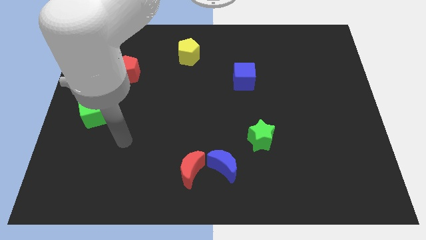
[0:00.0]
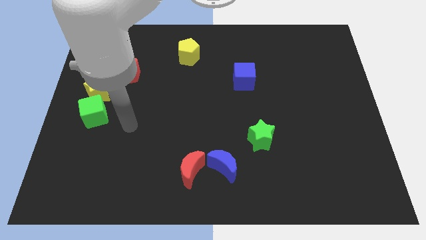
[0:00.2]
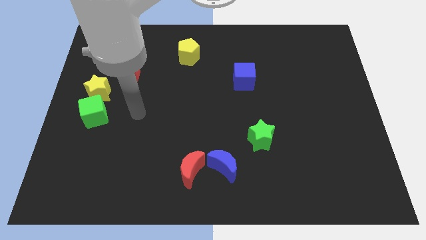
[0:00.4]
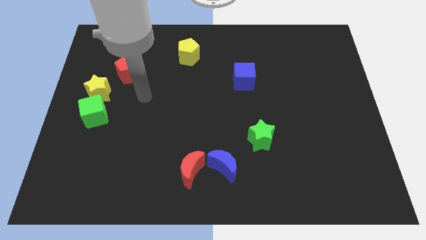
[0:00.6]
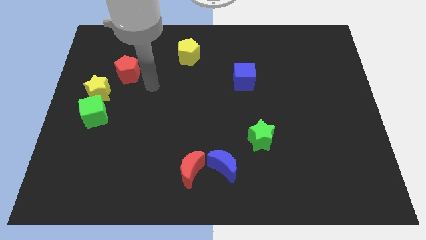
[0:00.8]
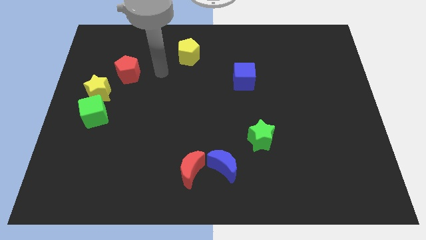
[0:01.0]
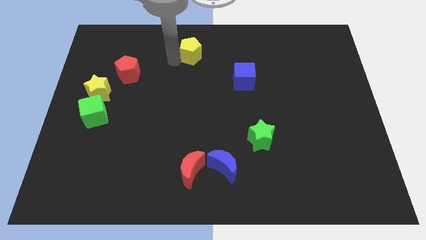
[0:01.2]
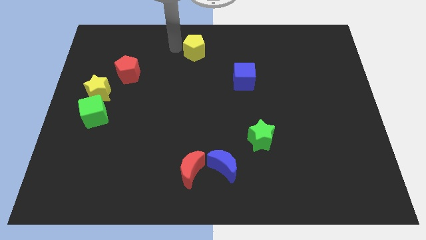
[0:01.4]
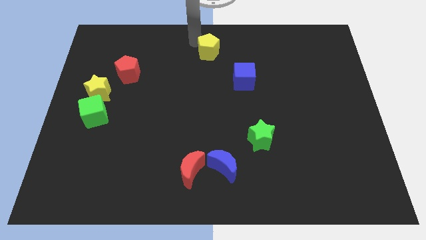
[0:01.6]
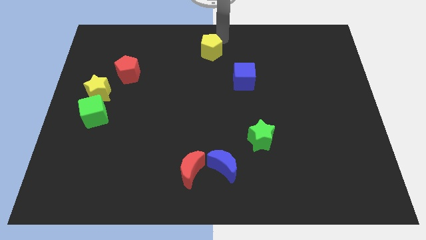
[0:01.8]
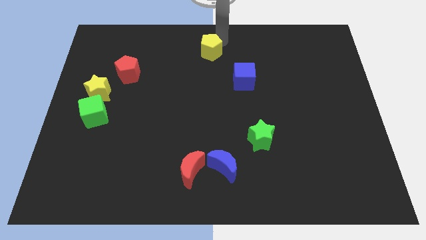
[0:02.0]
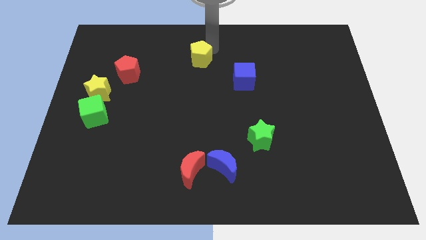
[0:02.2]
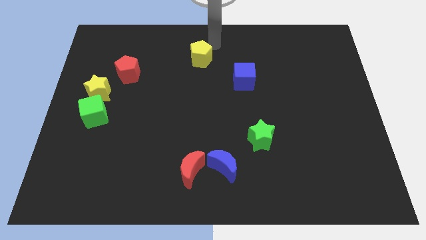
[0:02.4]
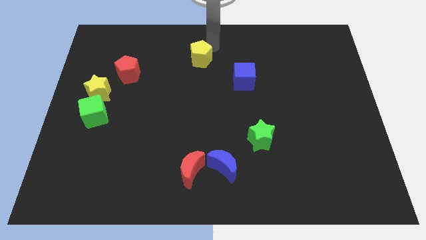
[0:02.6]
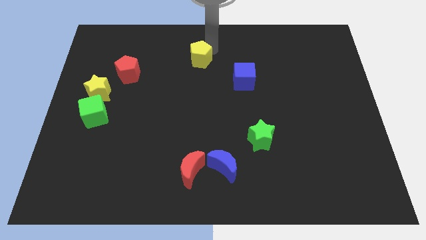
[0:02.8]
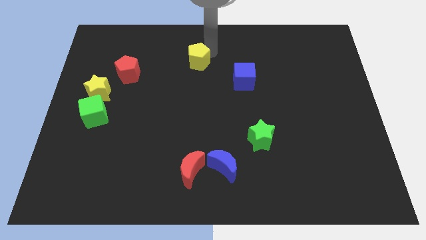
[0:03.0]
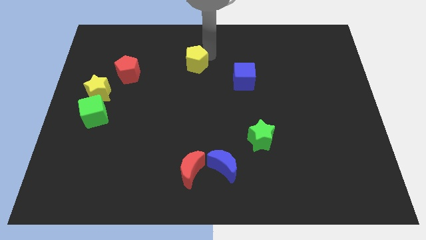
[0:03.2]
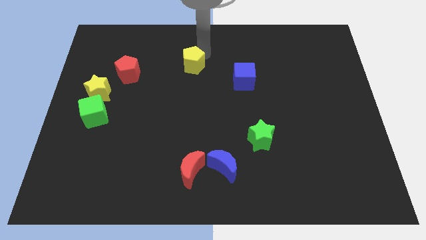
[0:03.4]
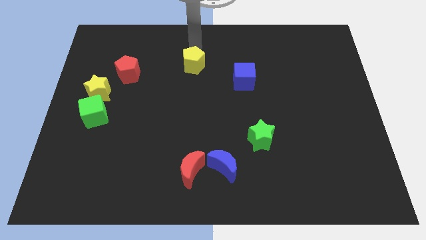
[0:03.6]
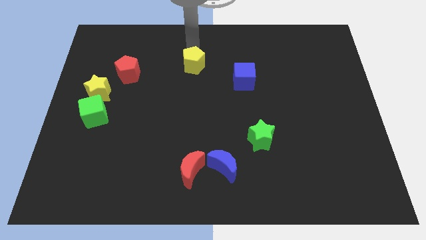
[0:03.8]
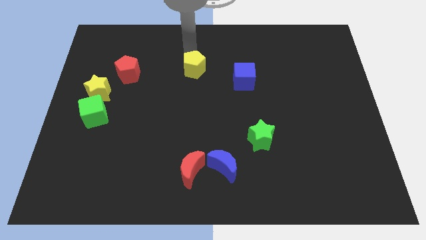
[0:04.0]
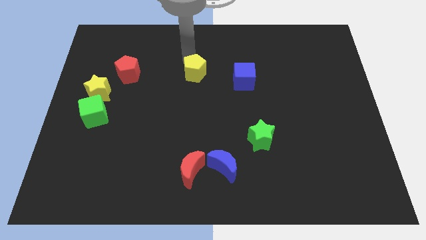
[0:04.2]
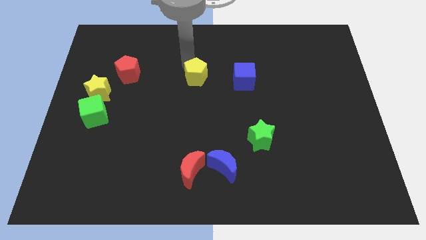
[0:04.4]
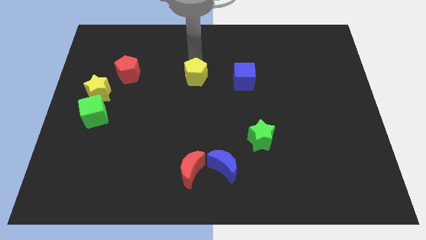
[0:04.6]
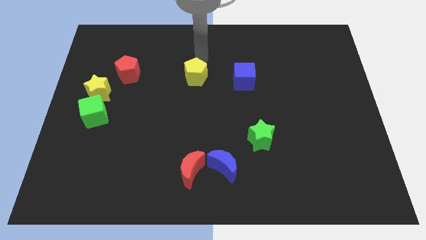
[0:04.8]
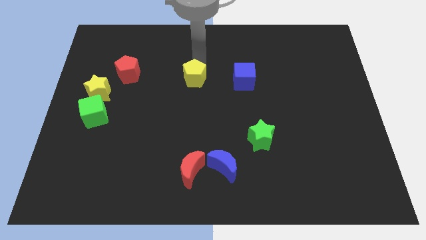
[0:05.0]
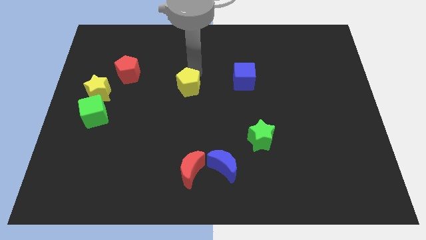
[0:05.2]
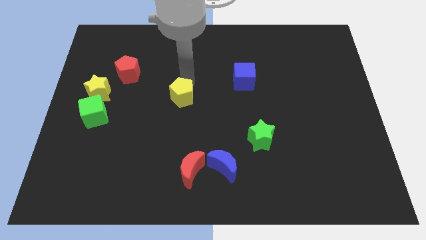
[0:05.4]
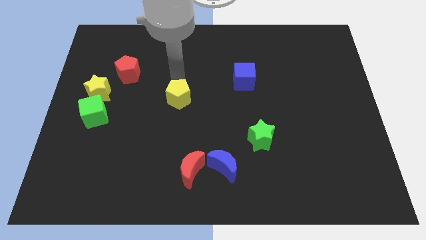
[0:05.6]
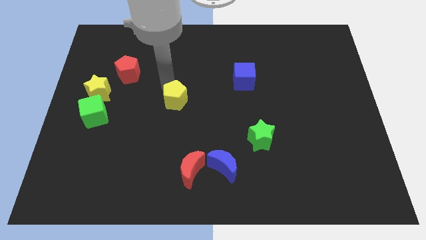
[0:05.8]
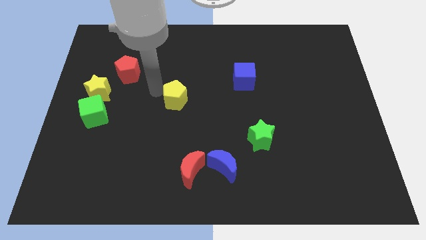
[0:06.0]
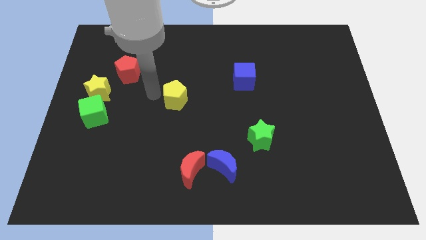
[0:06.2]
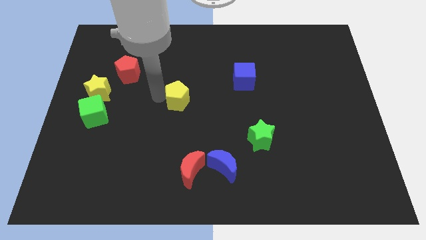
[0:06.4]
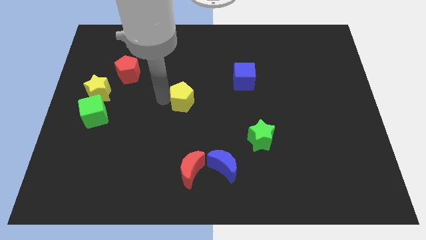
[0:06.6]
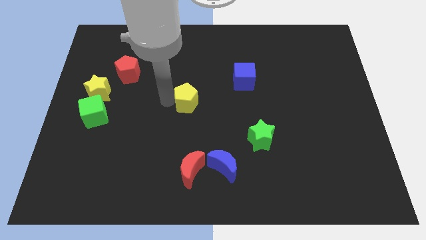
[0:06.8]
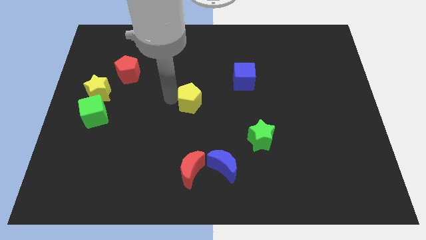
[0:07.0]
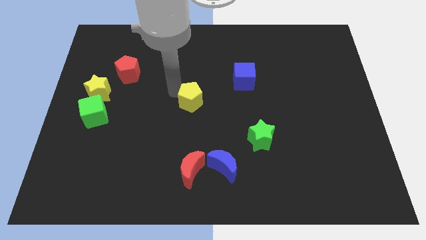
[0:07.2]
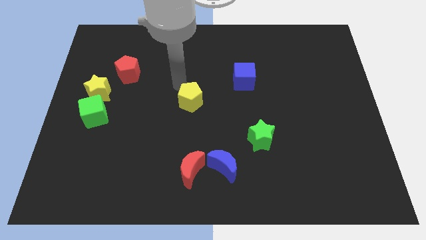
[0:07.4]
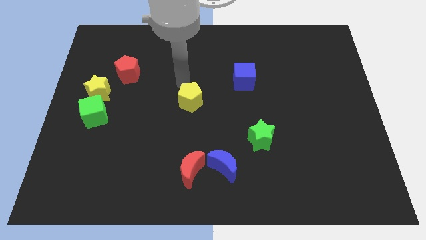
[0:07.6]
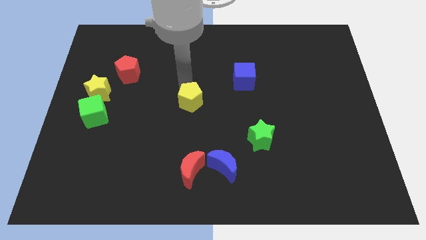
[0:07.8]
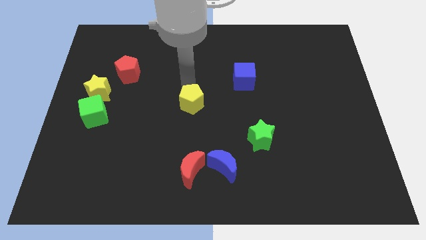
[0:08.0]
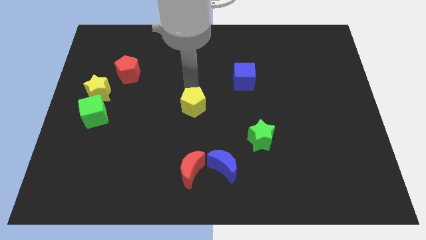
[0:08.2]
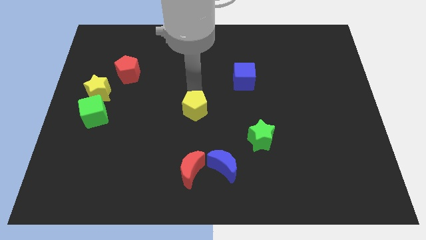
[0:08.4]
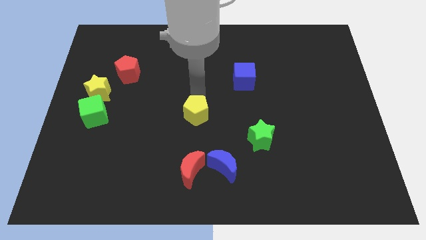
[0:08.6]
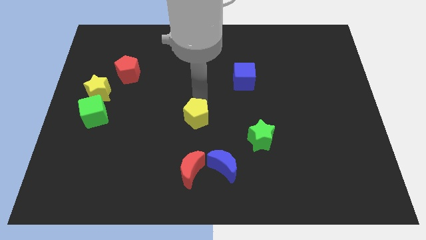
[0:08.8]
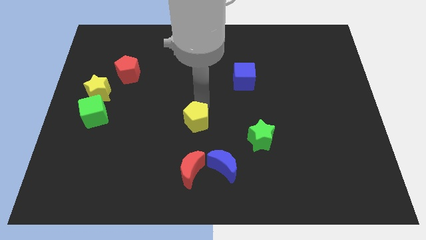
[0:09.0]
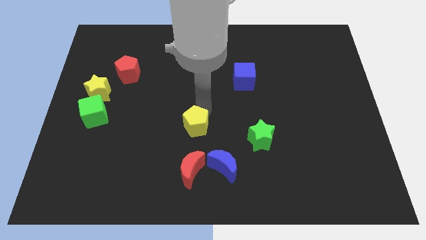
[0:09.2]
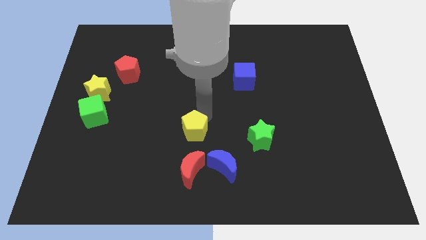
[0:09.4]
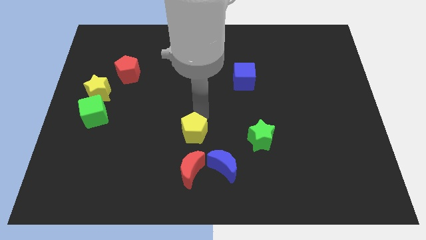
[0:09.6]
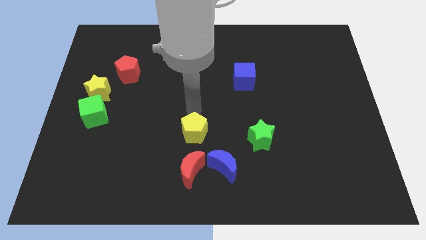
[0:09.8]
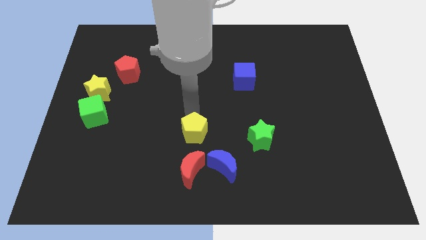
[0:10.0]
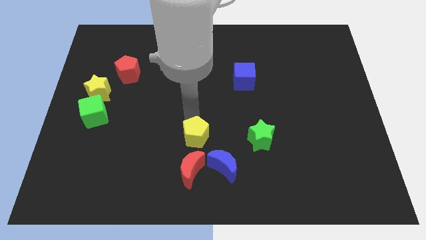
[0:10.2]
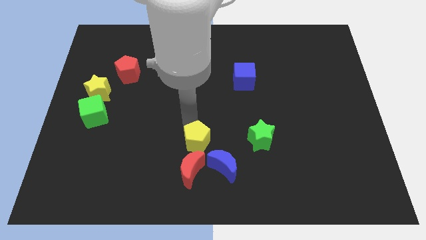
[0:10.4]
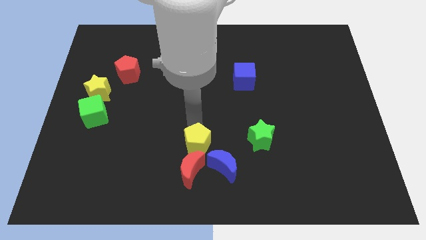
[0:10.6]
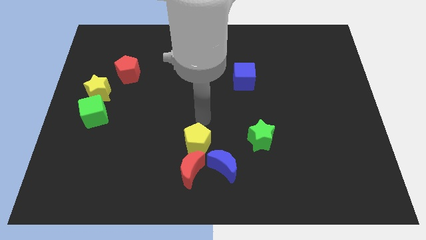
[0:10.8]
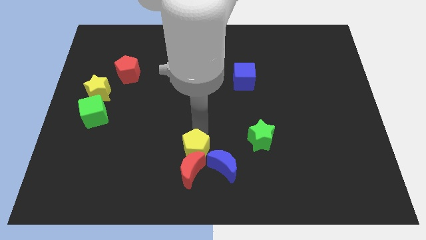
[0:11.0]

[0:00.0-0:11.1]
move the yellow pentagon towards the red moon

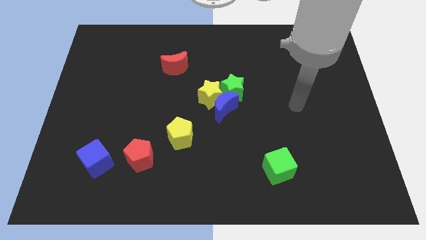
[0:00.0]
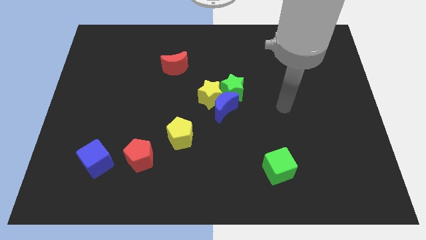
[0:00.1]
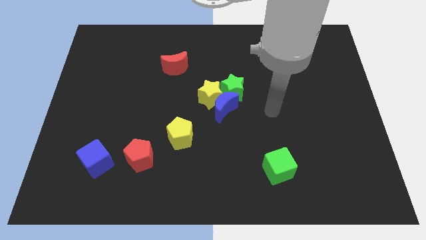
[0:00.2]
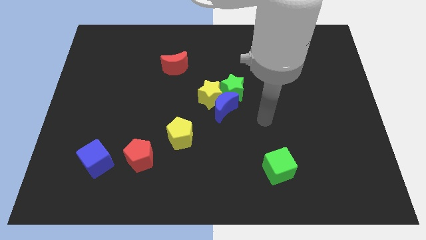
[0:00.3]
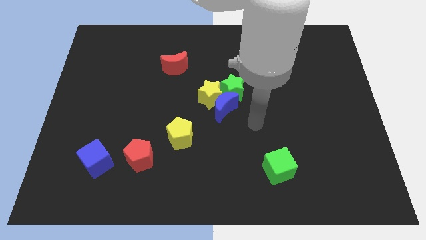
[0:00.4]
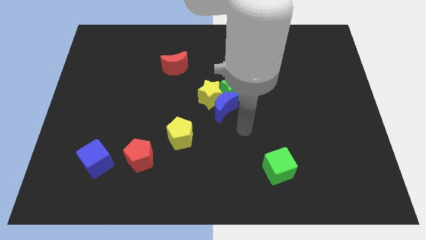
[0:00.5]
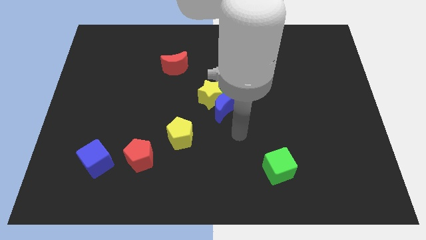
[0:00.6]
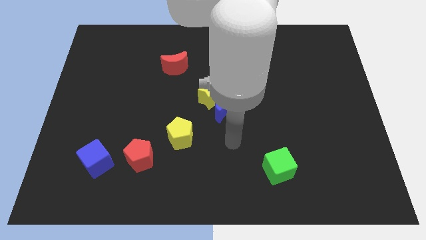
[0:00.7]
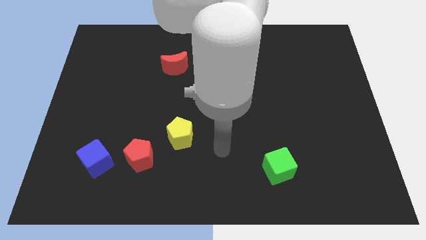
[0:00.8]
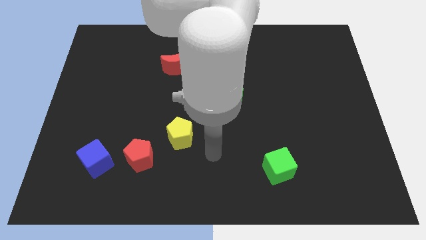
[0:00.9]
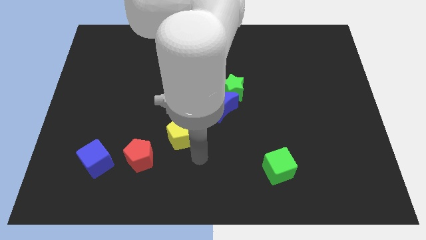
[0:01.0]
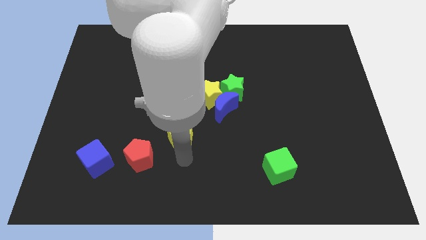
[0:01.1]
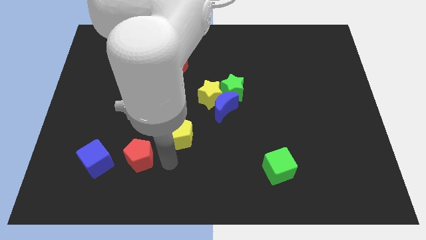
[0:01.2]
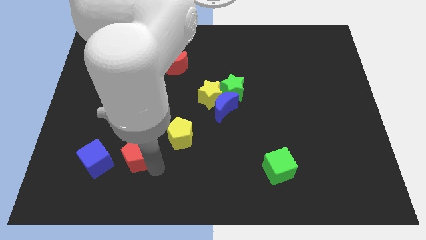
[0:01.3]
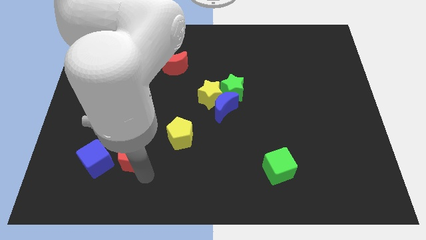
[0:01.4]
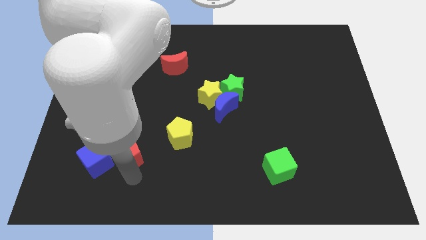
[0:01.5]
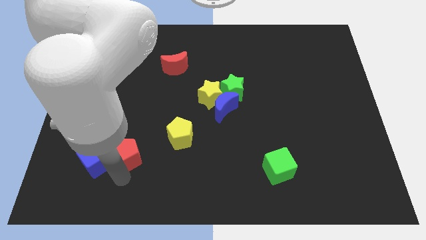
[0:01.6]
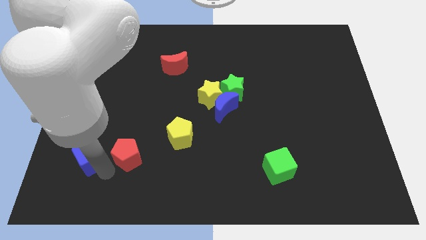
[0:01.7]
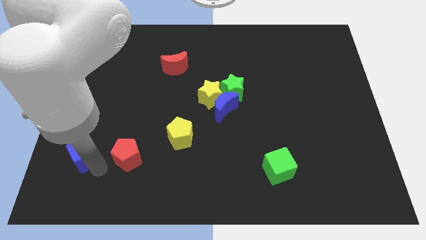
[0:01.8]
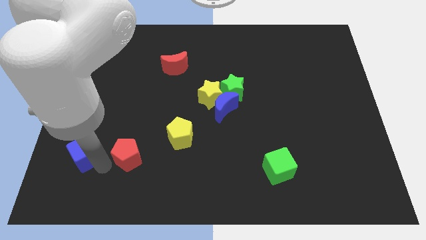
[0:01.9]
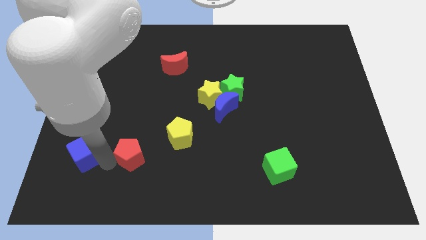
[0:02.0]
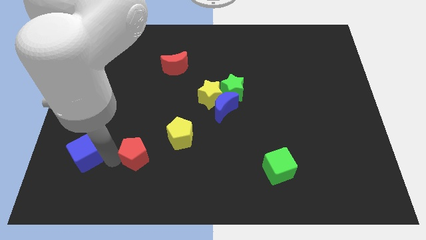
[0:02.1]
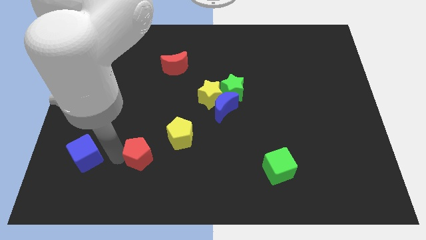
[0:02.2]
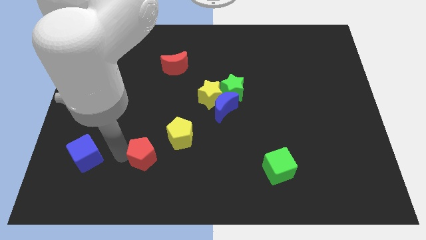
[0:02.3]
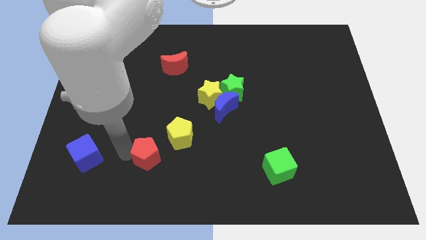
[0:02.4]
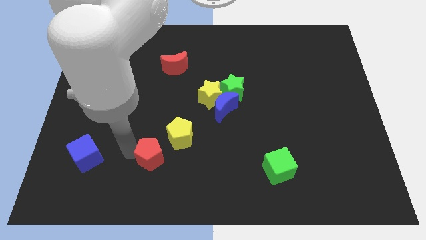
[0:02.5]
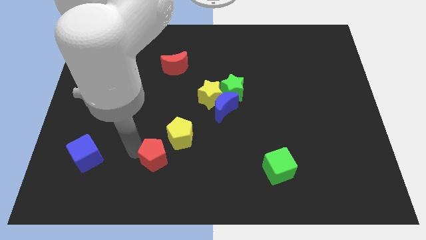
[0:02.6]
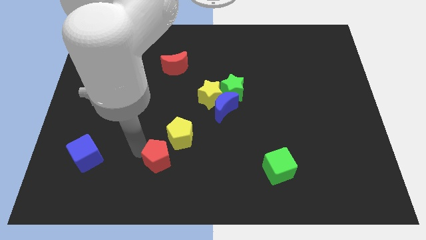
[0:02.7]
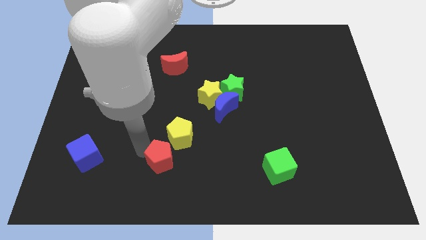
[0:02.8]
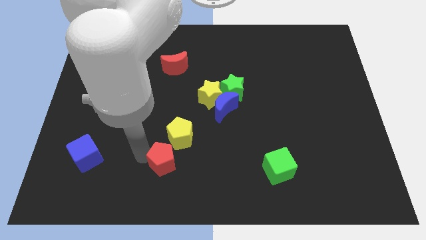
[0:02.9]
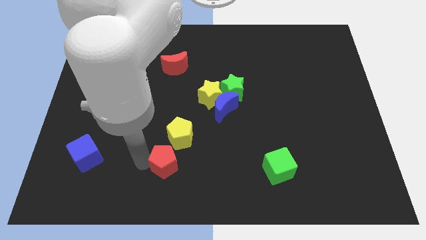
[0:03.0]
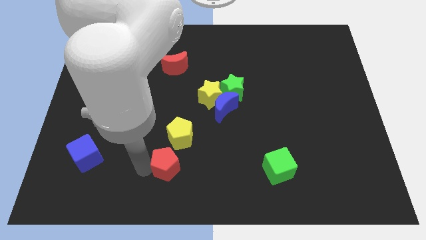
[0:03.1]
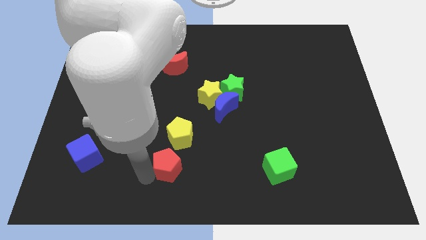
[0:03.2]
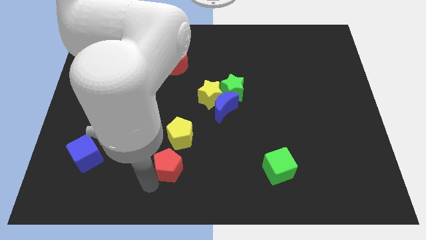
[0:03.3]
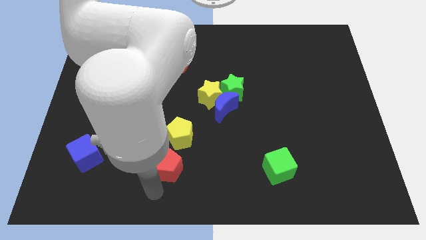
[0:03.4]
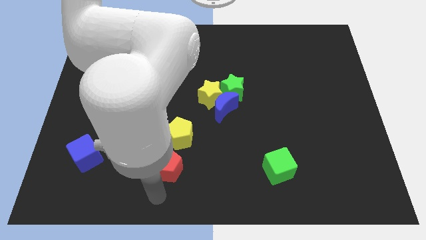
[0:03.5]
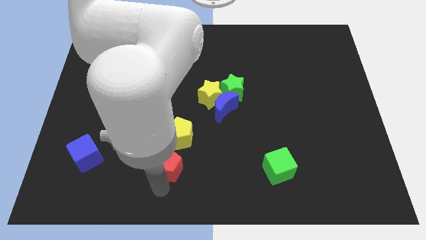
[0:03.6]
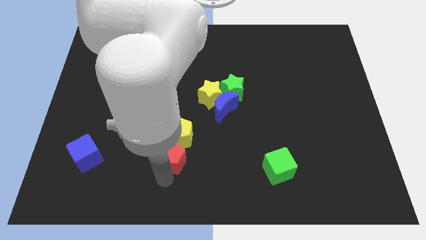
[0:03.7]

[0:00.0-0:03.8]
put the red pentagon close to the yellow pentagon
